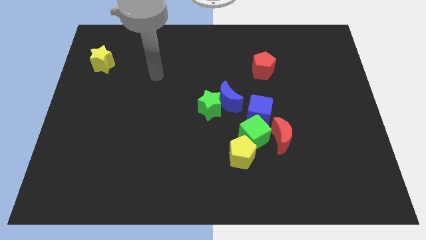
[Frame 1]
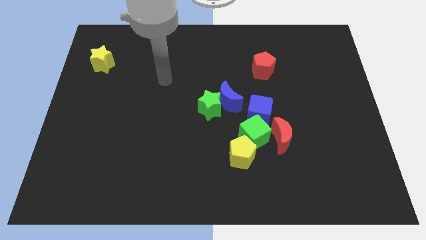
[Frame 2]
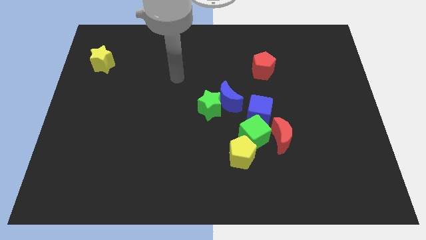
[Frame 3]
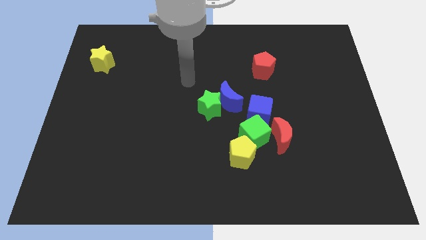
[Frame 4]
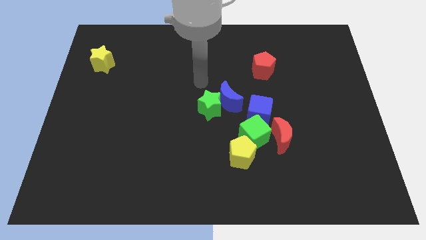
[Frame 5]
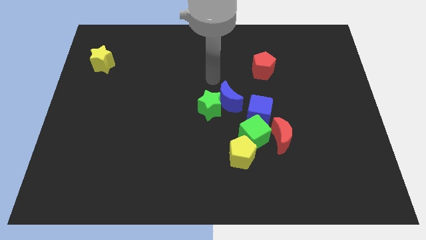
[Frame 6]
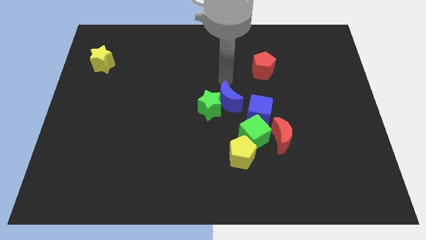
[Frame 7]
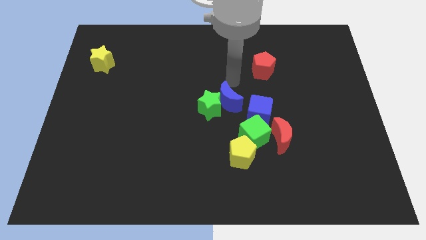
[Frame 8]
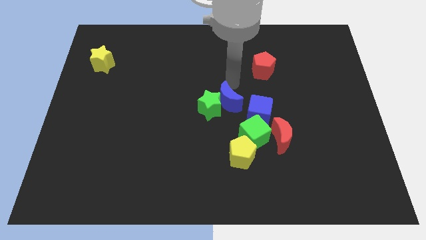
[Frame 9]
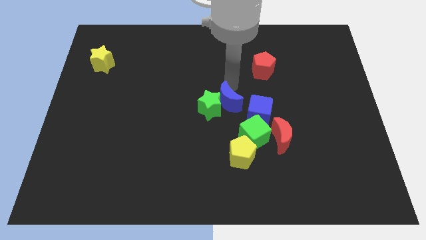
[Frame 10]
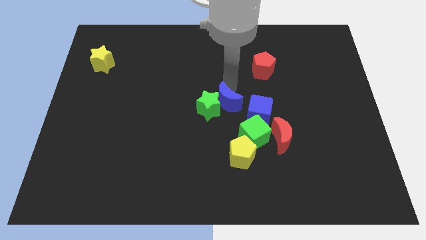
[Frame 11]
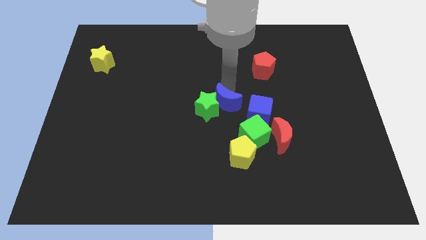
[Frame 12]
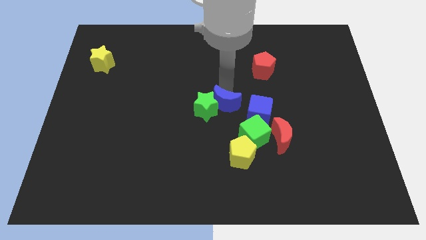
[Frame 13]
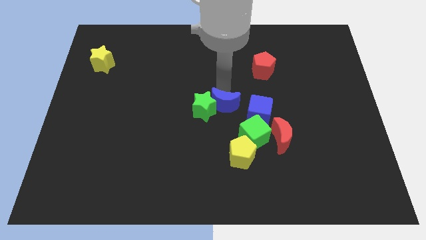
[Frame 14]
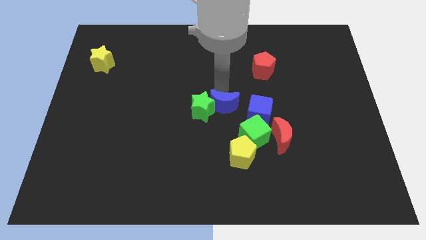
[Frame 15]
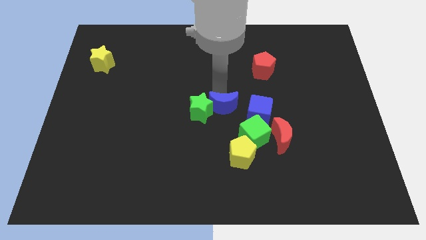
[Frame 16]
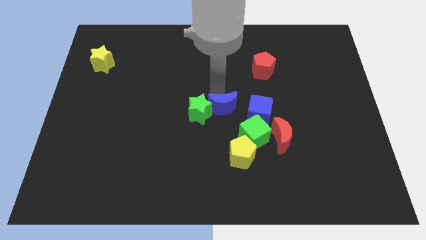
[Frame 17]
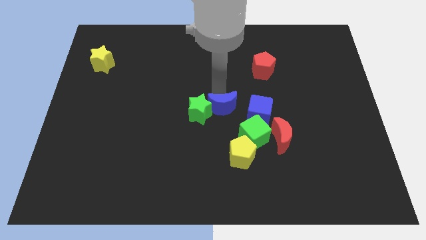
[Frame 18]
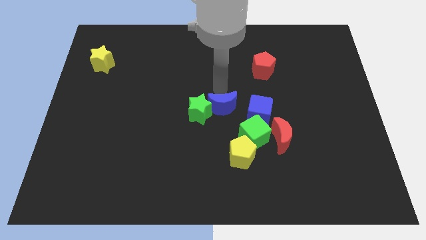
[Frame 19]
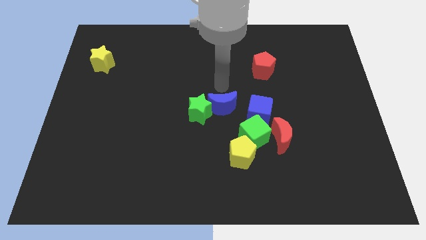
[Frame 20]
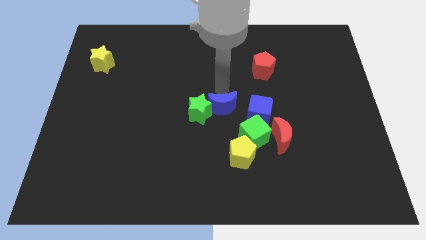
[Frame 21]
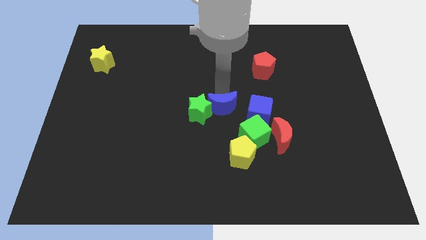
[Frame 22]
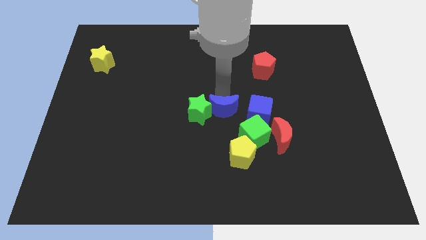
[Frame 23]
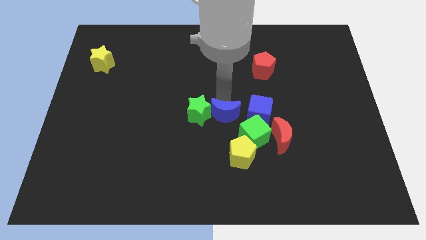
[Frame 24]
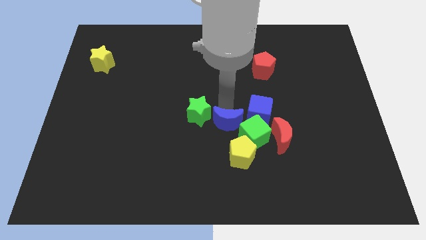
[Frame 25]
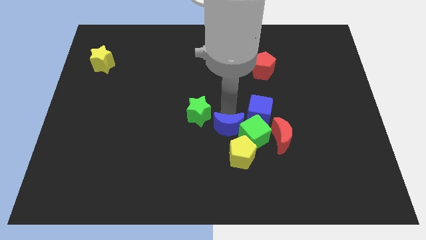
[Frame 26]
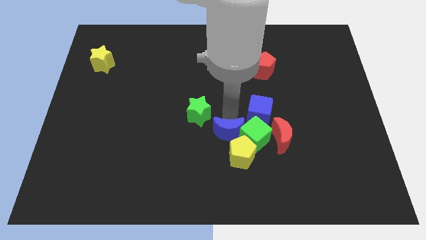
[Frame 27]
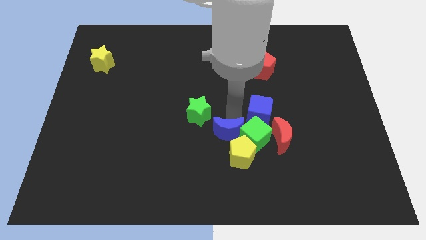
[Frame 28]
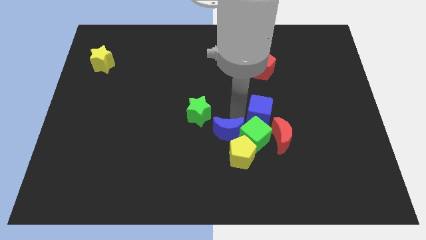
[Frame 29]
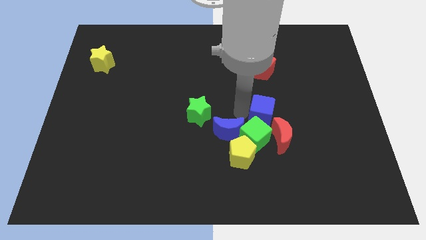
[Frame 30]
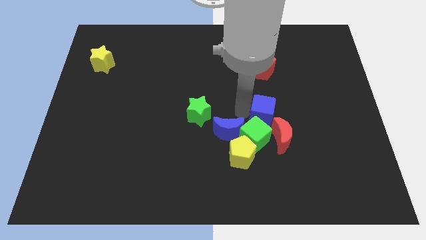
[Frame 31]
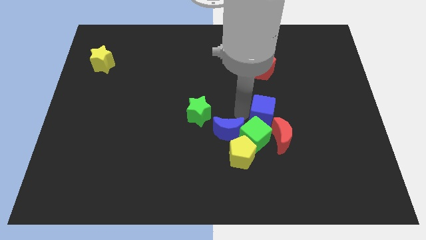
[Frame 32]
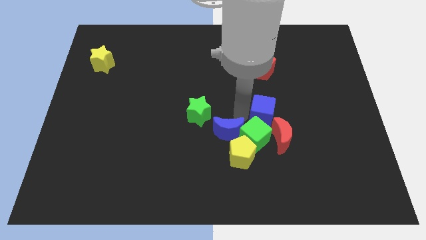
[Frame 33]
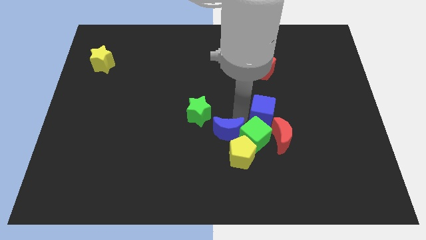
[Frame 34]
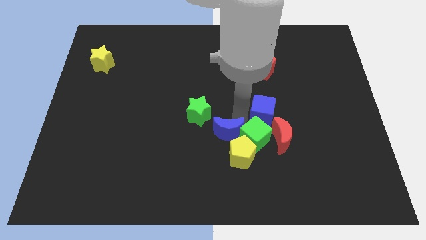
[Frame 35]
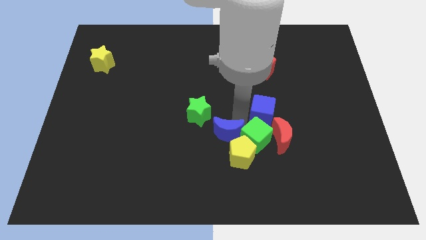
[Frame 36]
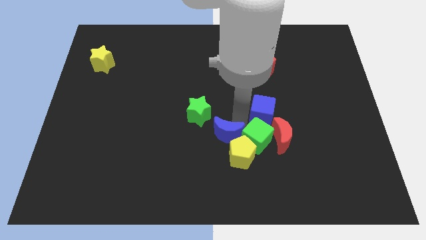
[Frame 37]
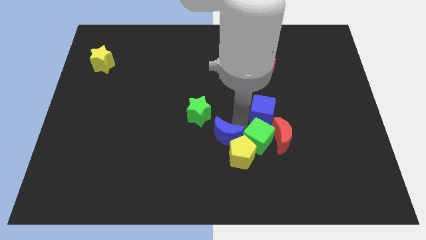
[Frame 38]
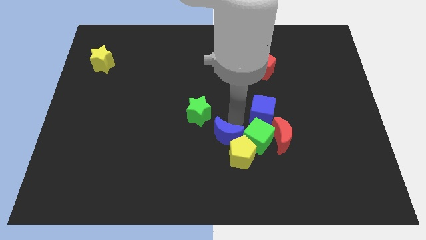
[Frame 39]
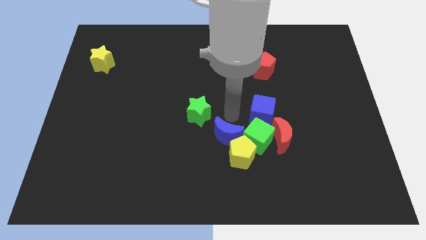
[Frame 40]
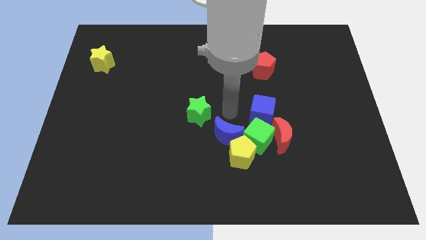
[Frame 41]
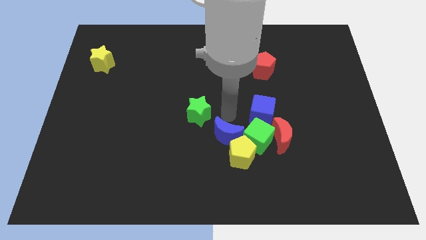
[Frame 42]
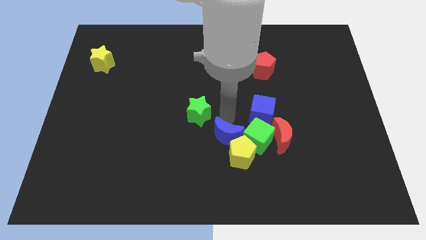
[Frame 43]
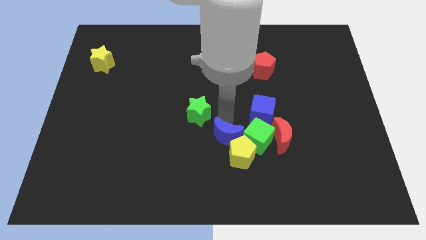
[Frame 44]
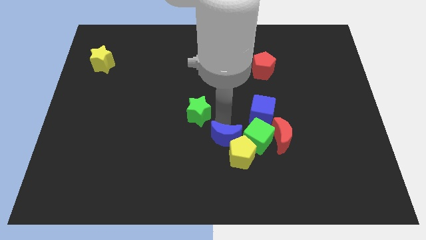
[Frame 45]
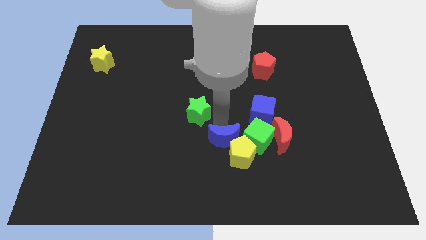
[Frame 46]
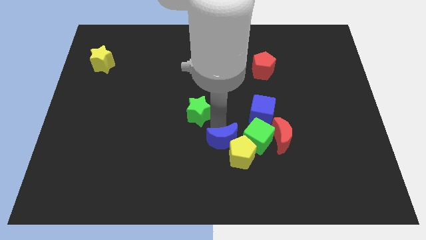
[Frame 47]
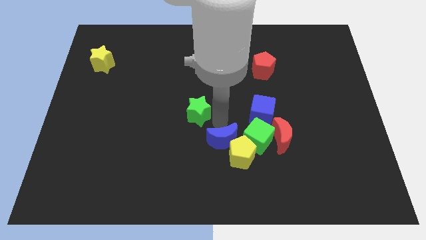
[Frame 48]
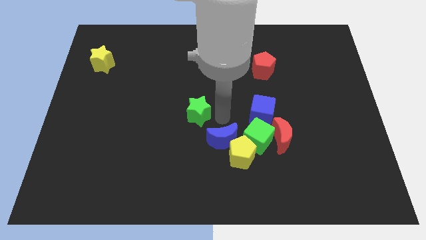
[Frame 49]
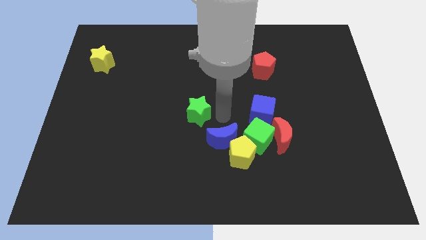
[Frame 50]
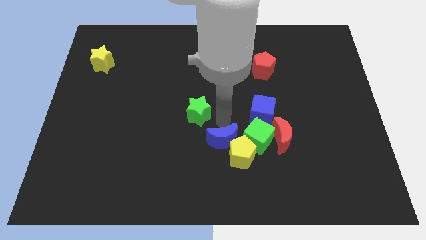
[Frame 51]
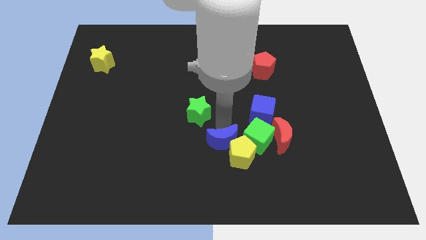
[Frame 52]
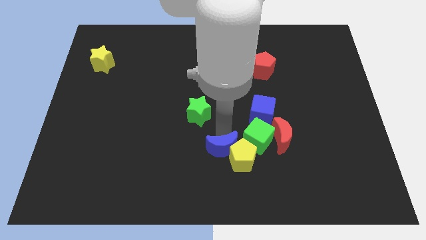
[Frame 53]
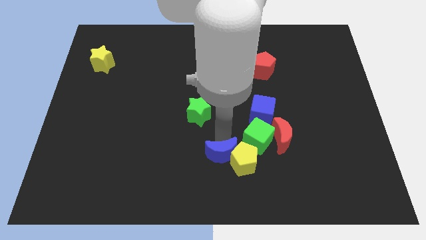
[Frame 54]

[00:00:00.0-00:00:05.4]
slide the blue moon to the bottom

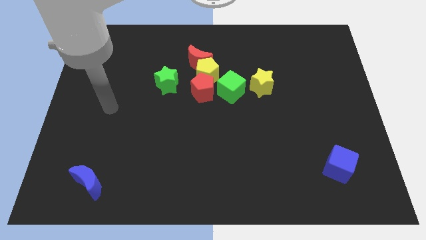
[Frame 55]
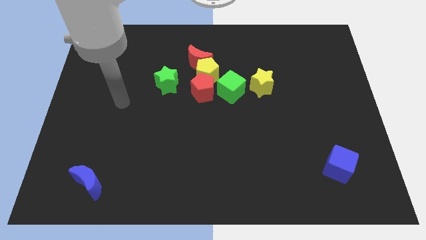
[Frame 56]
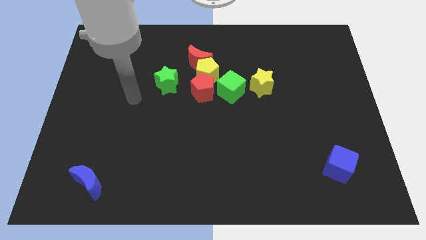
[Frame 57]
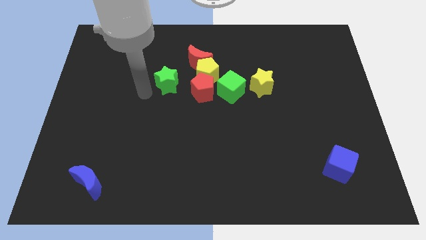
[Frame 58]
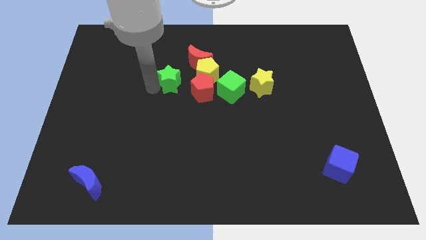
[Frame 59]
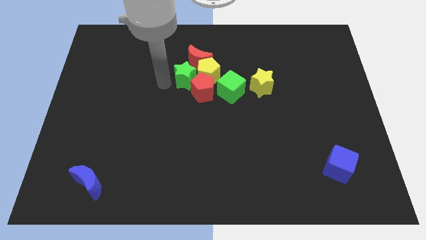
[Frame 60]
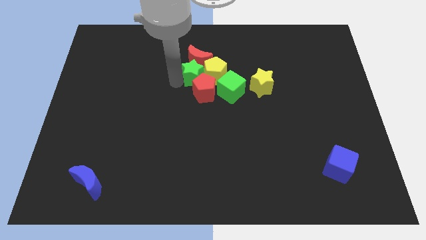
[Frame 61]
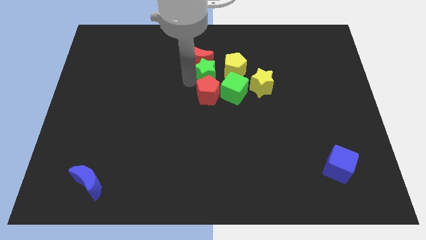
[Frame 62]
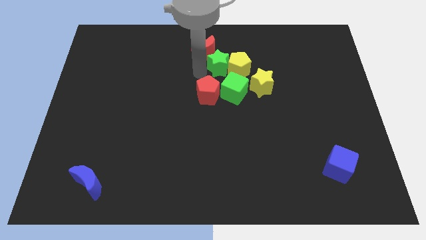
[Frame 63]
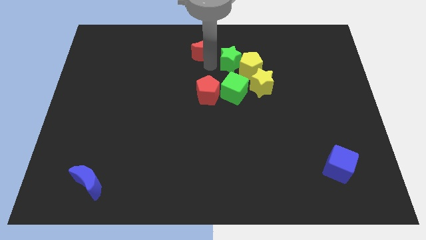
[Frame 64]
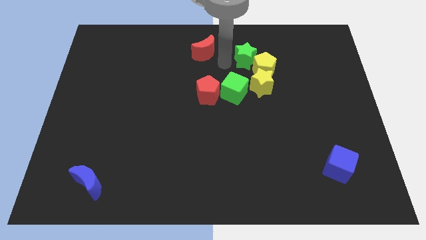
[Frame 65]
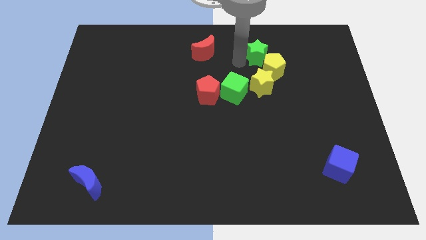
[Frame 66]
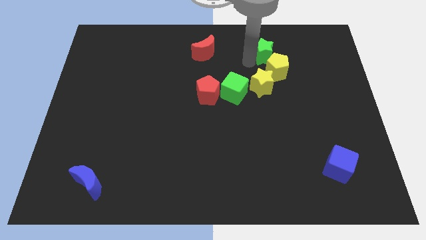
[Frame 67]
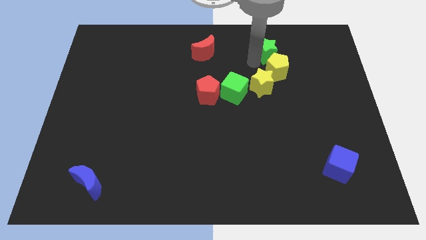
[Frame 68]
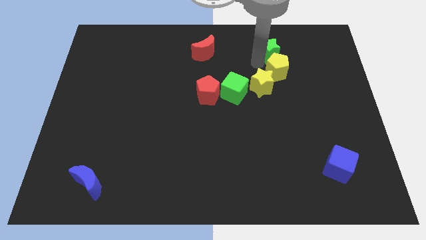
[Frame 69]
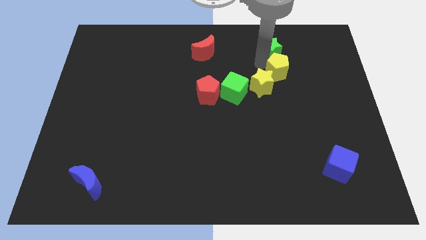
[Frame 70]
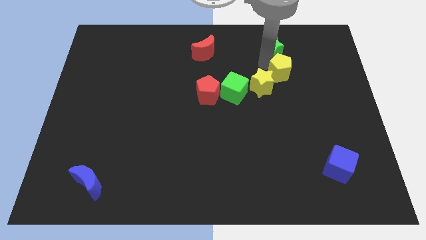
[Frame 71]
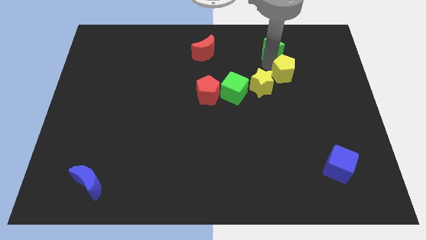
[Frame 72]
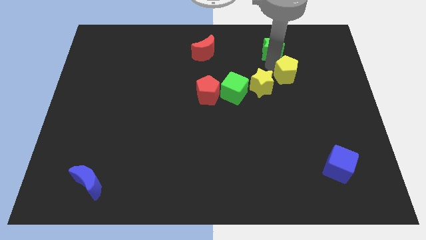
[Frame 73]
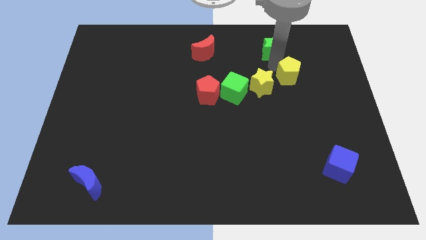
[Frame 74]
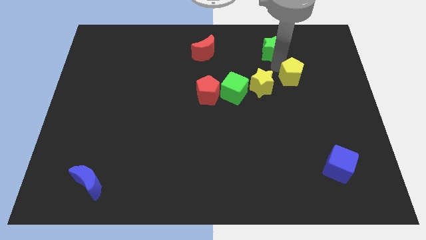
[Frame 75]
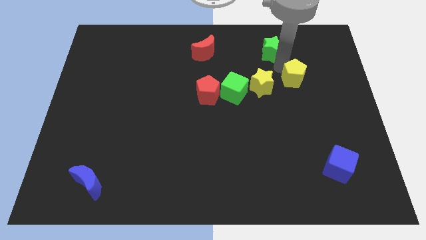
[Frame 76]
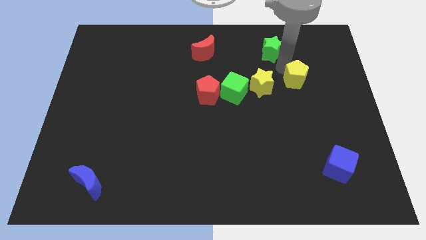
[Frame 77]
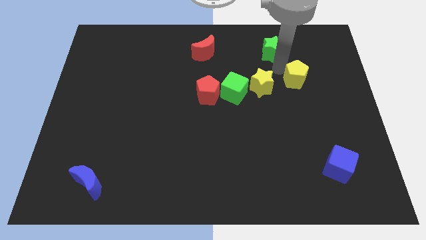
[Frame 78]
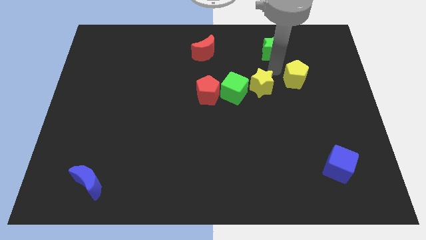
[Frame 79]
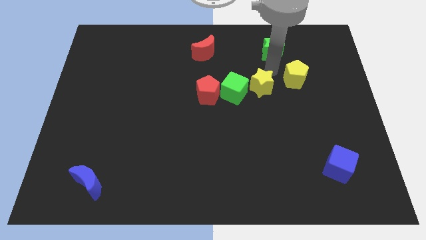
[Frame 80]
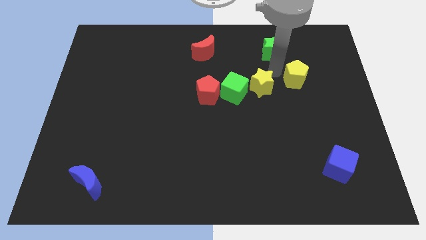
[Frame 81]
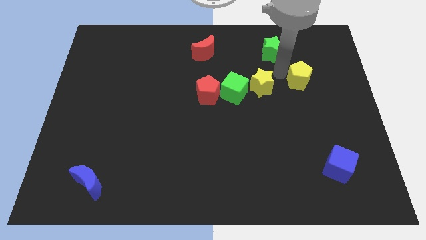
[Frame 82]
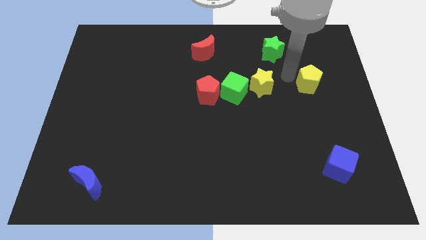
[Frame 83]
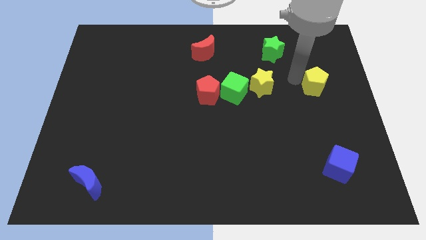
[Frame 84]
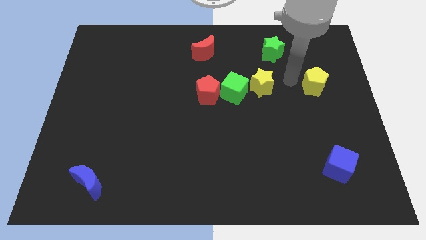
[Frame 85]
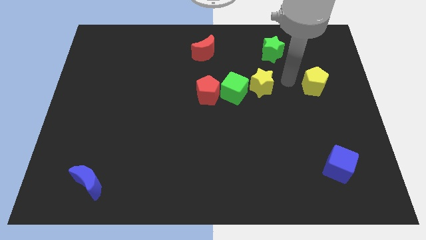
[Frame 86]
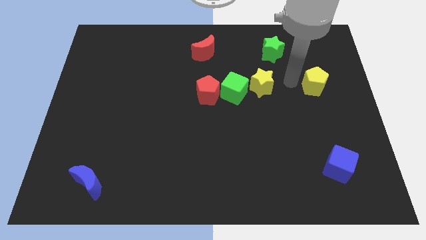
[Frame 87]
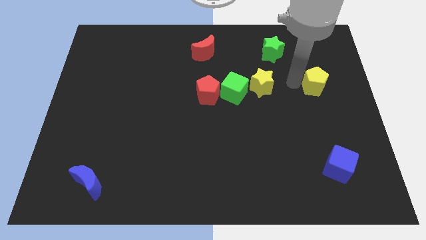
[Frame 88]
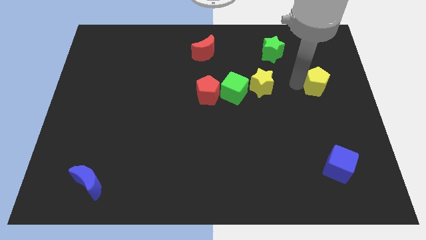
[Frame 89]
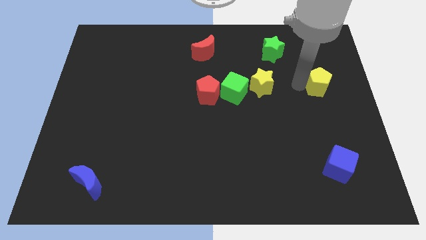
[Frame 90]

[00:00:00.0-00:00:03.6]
put the yellow pentagon to the right side
